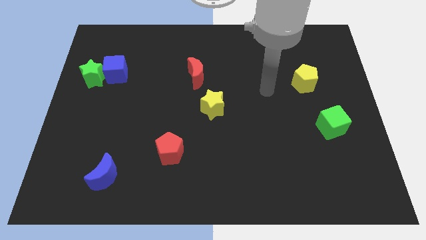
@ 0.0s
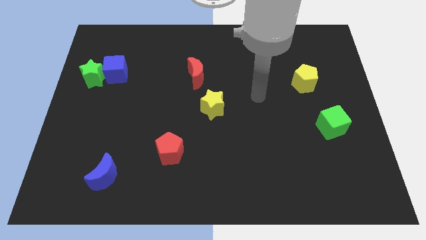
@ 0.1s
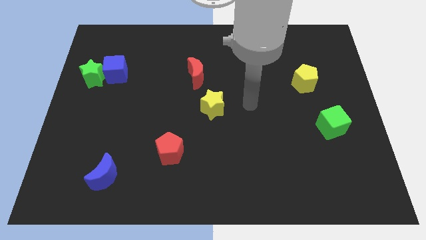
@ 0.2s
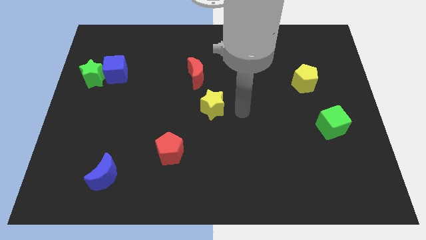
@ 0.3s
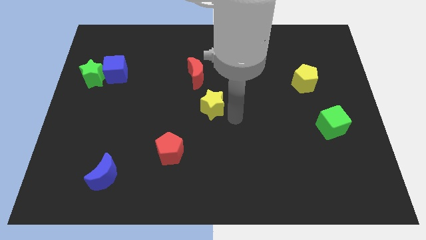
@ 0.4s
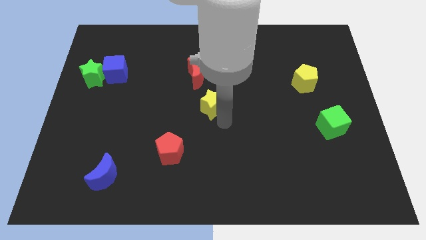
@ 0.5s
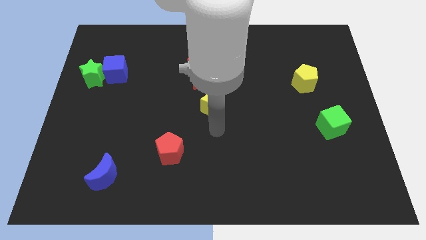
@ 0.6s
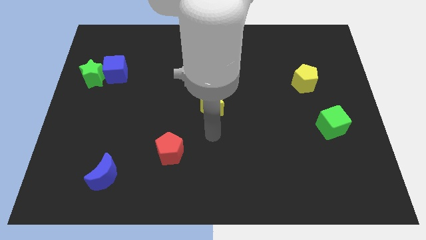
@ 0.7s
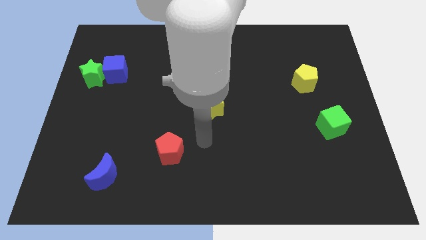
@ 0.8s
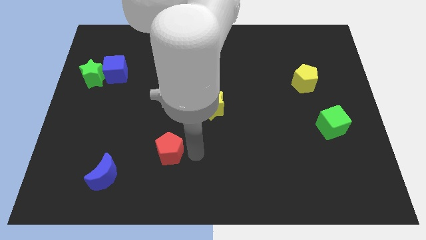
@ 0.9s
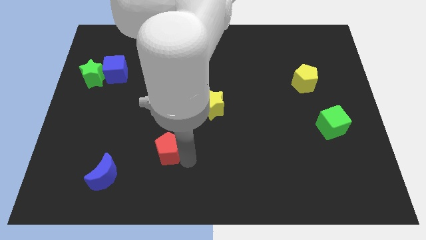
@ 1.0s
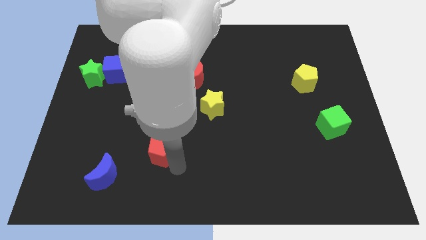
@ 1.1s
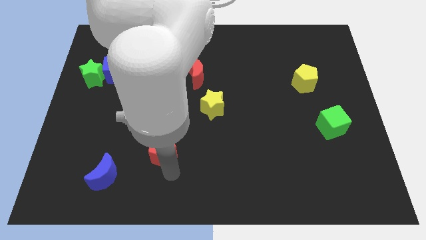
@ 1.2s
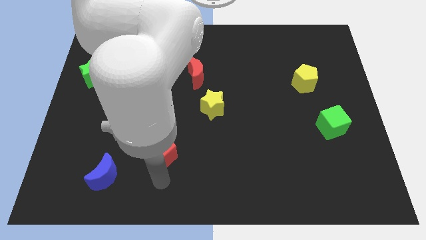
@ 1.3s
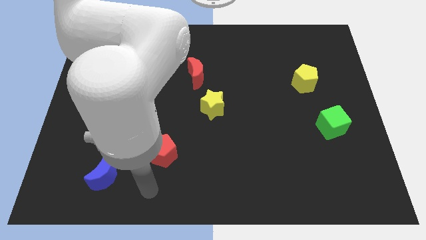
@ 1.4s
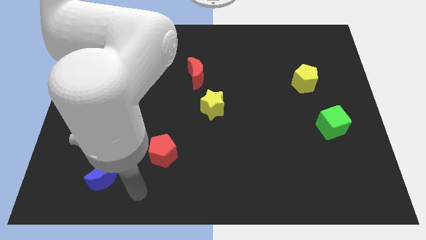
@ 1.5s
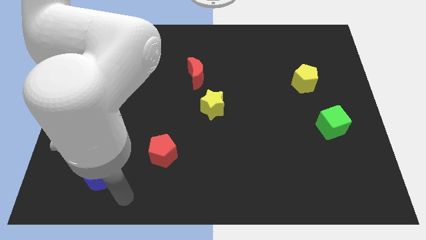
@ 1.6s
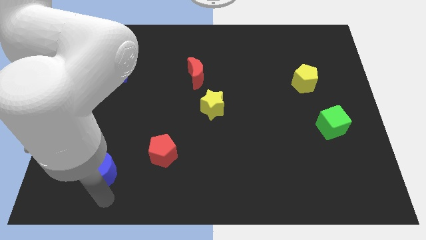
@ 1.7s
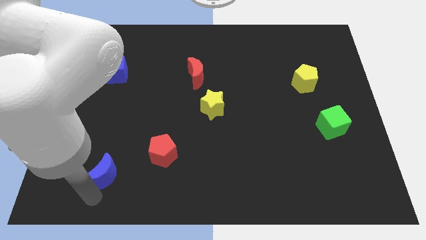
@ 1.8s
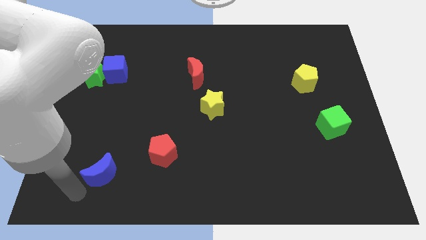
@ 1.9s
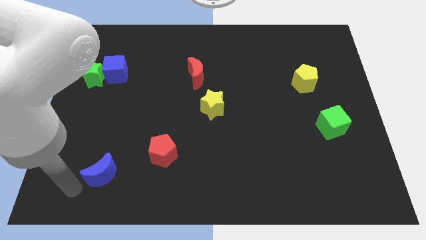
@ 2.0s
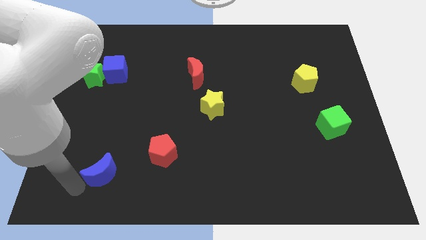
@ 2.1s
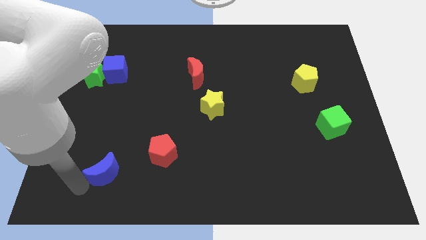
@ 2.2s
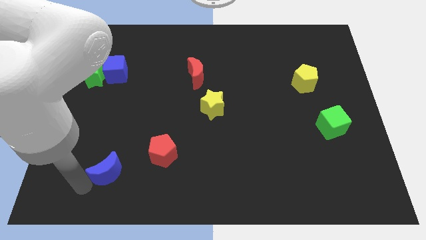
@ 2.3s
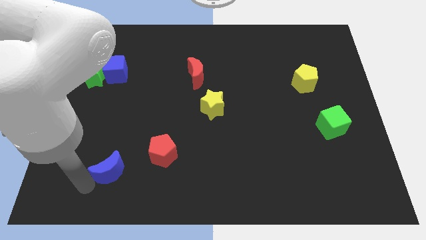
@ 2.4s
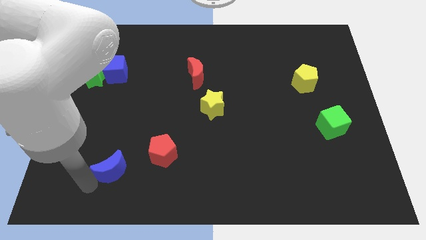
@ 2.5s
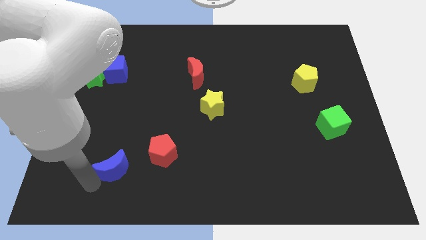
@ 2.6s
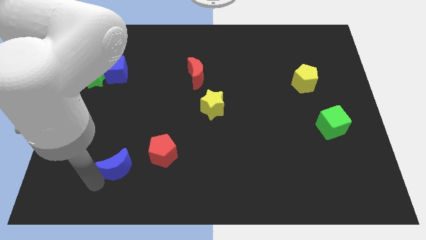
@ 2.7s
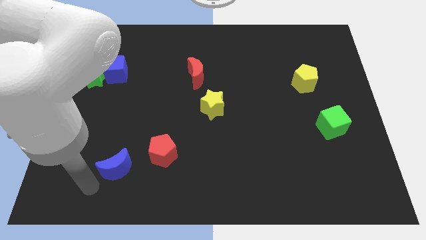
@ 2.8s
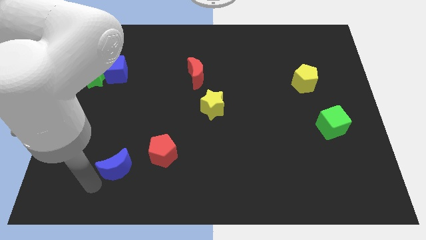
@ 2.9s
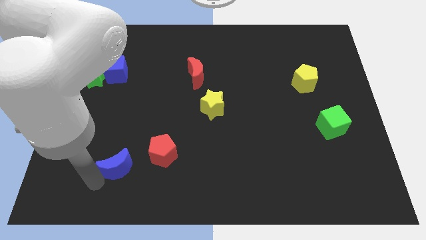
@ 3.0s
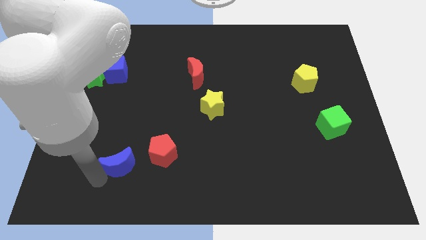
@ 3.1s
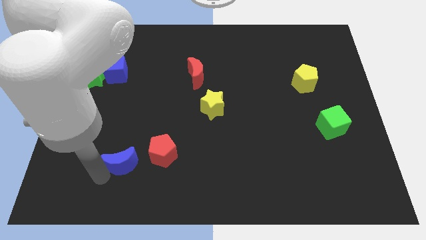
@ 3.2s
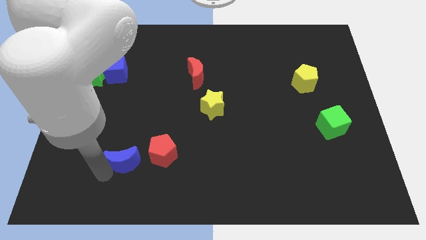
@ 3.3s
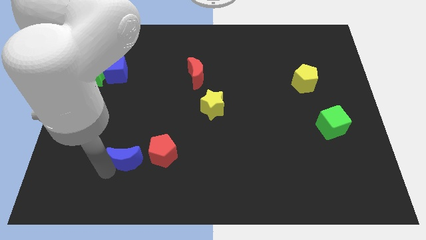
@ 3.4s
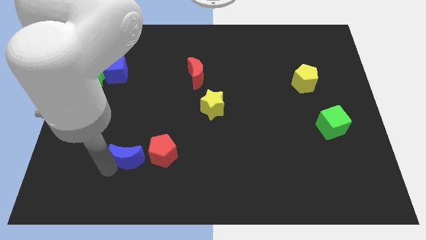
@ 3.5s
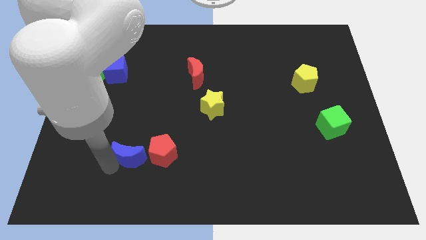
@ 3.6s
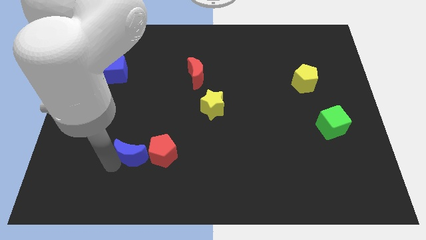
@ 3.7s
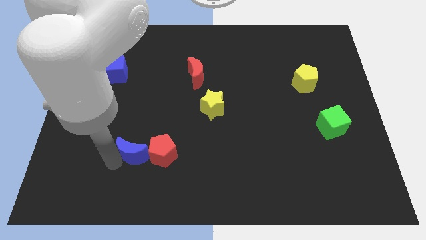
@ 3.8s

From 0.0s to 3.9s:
slide the blue moon upwards and right diagonally a bit

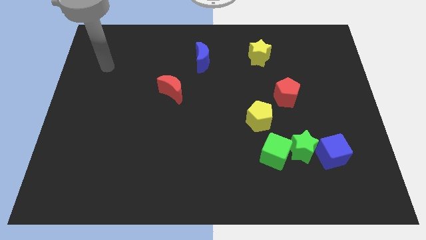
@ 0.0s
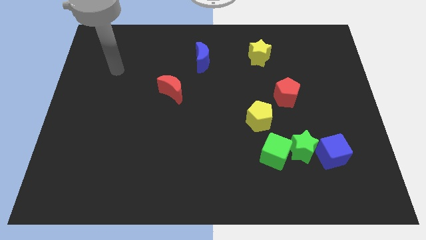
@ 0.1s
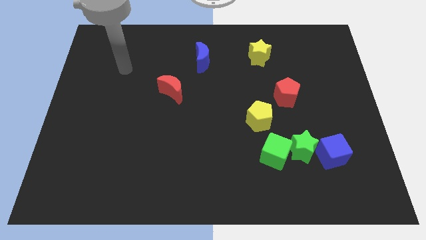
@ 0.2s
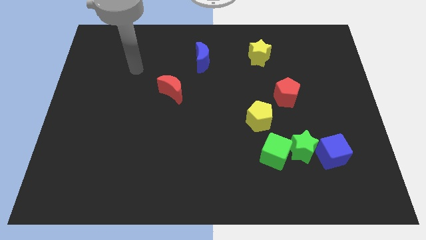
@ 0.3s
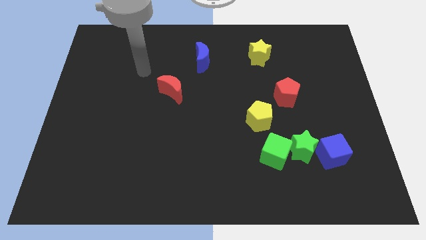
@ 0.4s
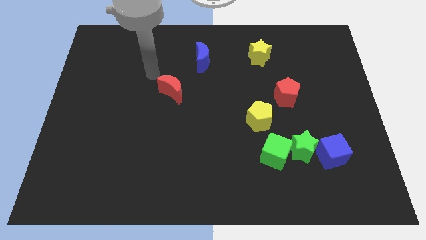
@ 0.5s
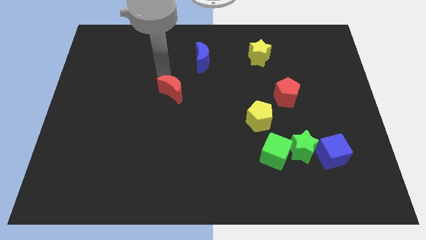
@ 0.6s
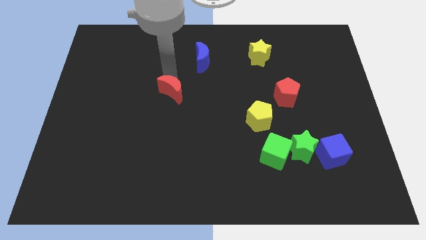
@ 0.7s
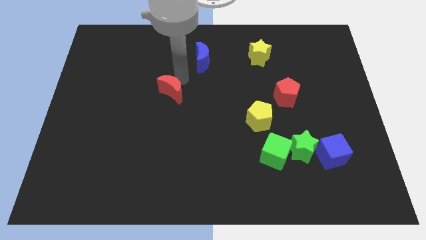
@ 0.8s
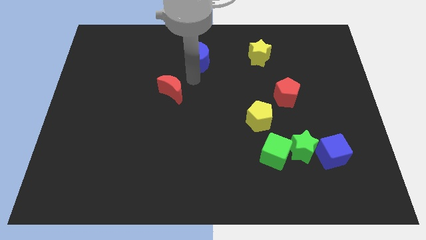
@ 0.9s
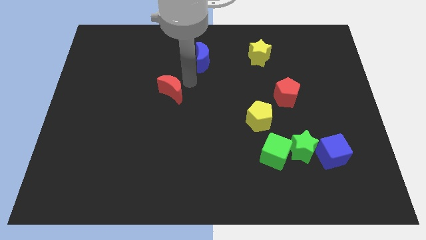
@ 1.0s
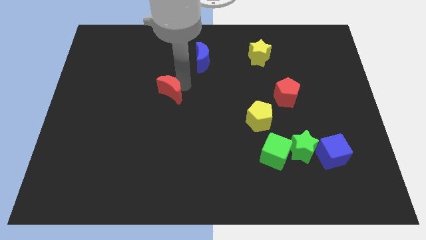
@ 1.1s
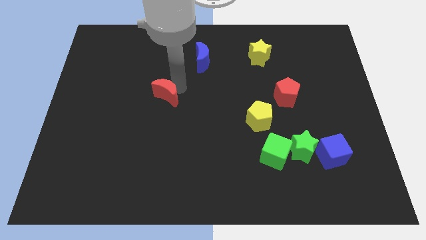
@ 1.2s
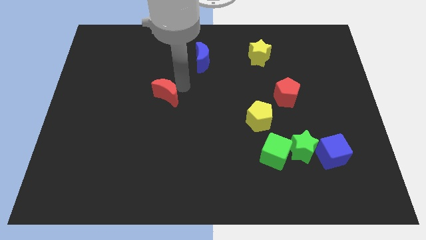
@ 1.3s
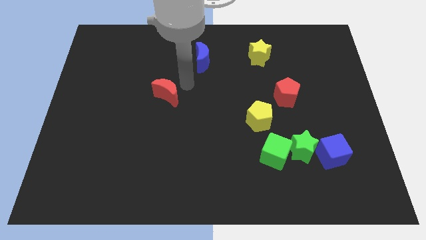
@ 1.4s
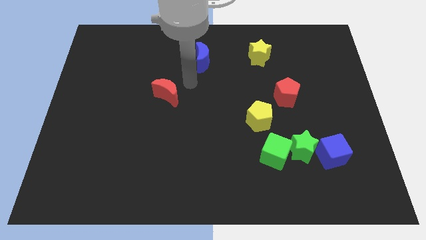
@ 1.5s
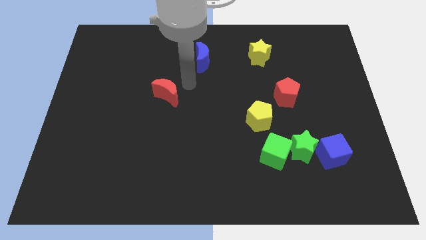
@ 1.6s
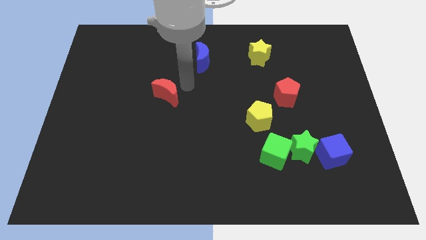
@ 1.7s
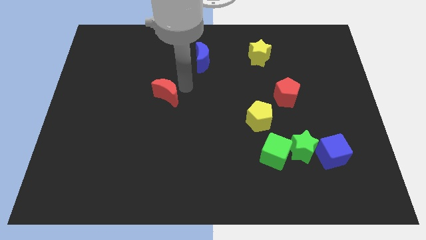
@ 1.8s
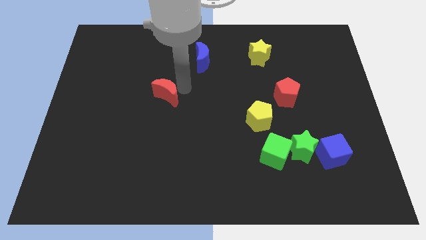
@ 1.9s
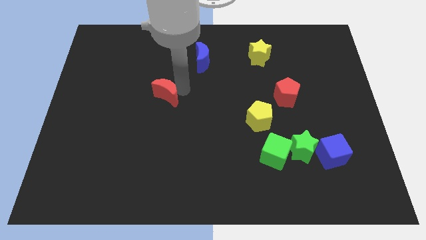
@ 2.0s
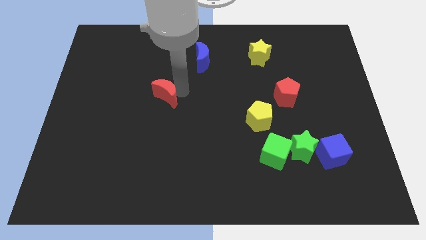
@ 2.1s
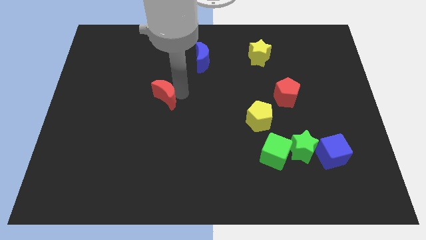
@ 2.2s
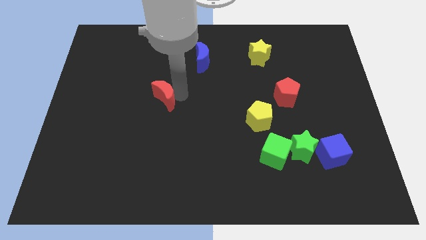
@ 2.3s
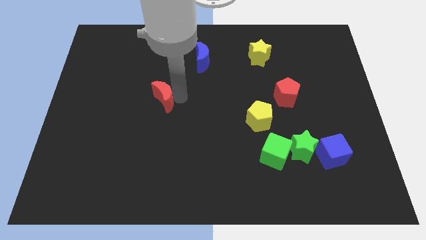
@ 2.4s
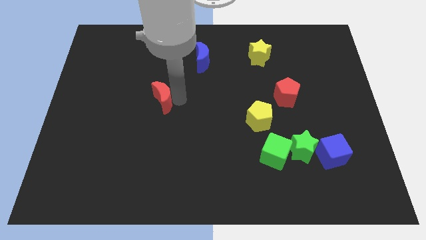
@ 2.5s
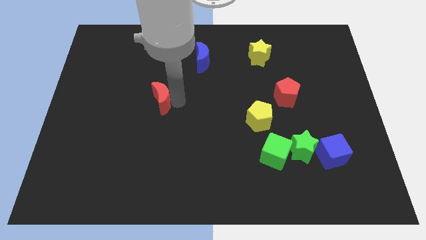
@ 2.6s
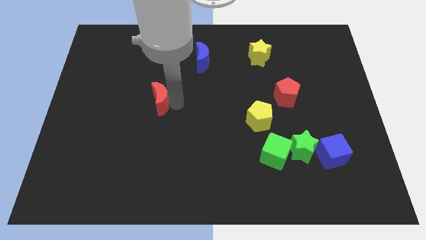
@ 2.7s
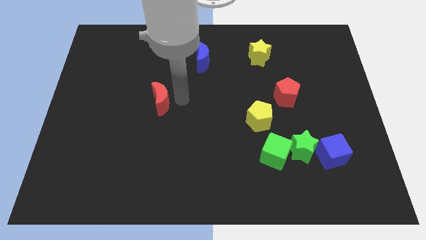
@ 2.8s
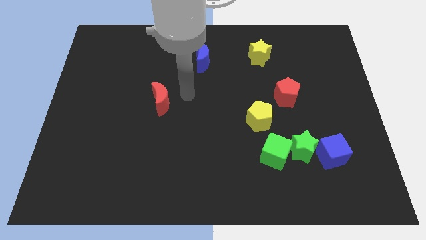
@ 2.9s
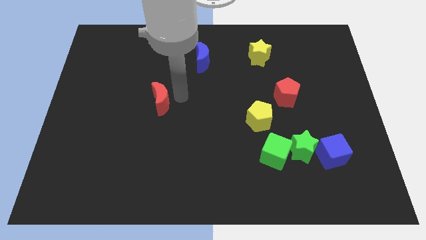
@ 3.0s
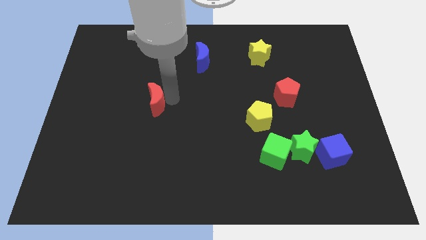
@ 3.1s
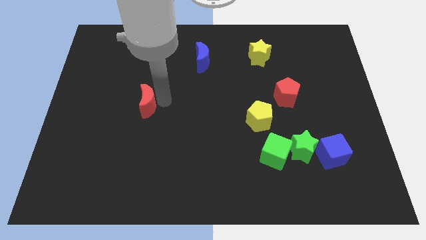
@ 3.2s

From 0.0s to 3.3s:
slightly push the red moon down and to the left

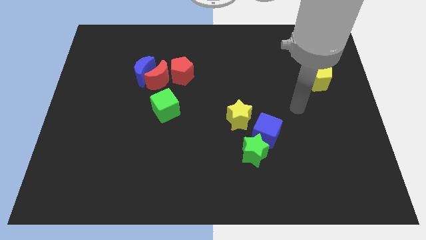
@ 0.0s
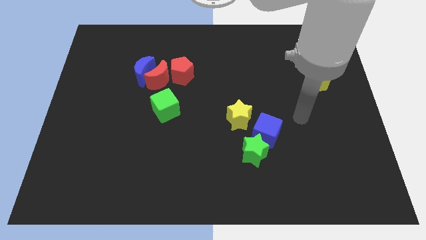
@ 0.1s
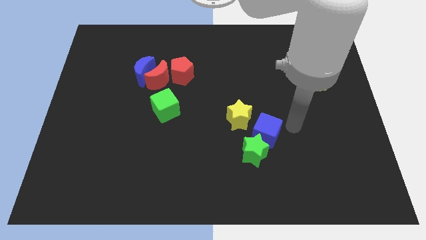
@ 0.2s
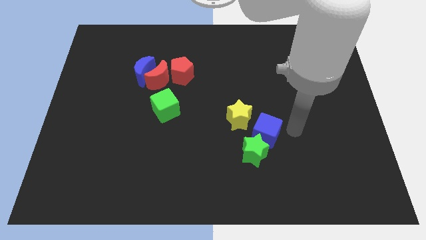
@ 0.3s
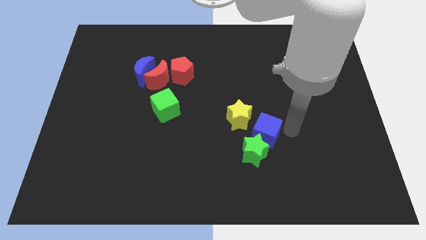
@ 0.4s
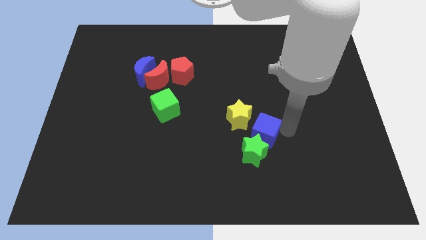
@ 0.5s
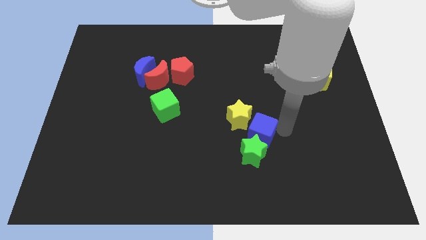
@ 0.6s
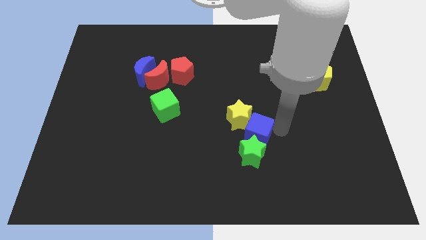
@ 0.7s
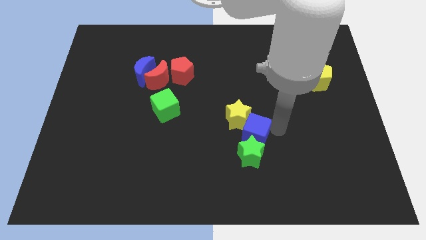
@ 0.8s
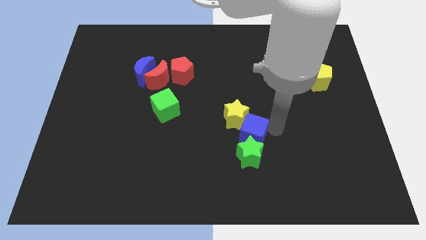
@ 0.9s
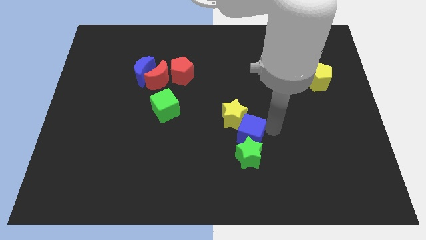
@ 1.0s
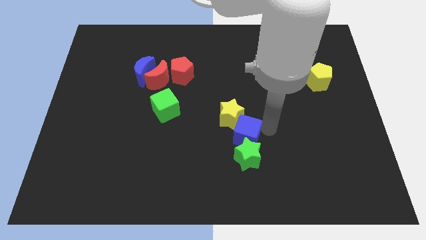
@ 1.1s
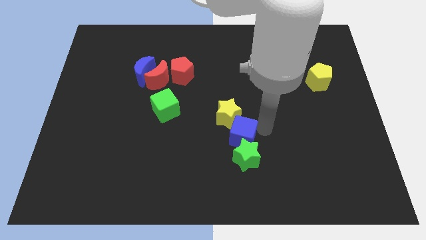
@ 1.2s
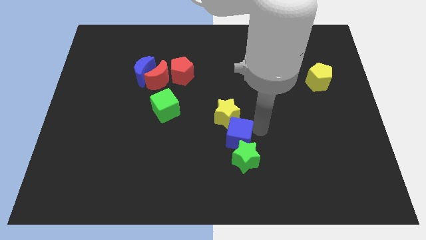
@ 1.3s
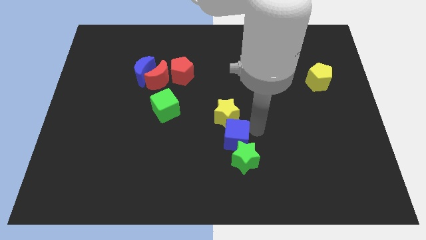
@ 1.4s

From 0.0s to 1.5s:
slightly slide the blue cube to the left
